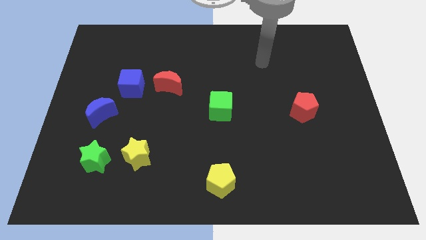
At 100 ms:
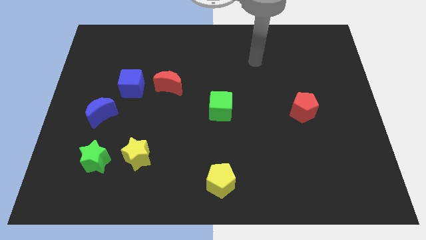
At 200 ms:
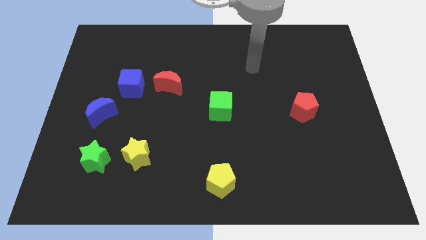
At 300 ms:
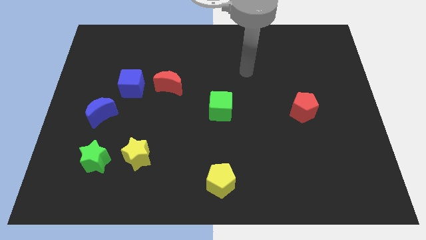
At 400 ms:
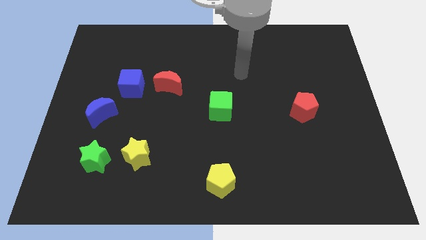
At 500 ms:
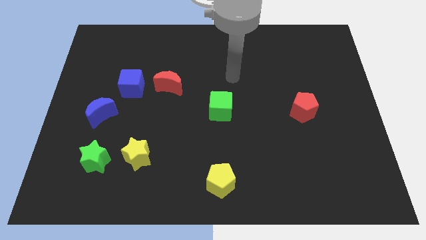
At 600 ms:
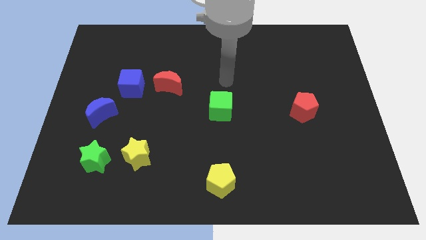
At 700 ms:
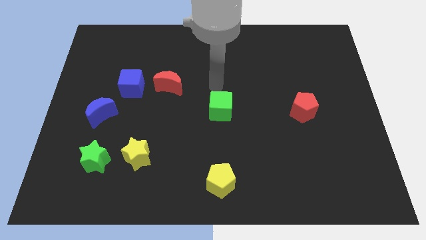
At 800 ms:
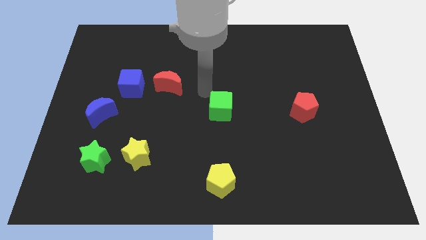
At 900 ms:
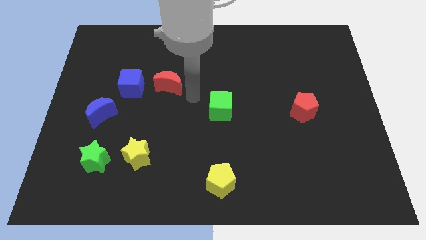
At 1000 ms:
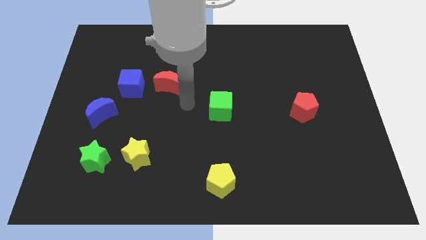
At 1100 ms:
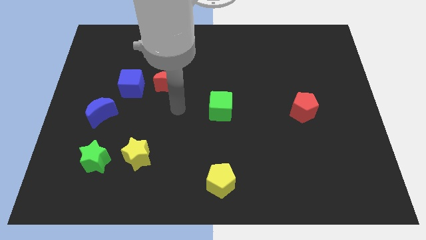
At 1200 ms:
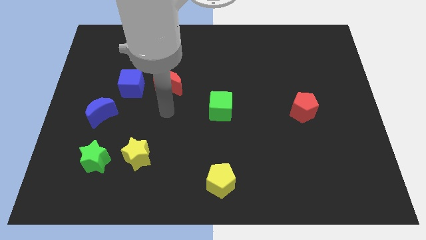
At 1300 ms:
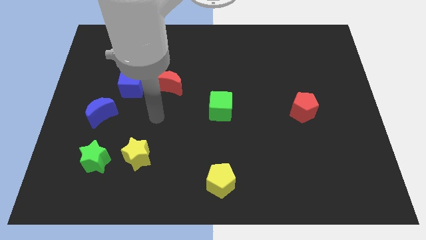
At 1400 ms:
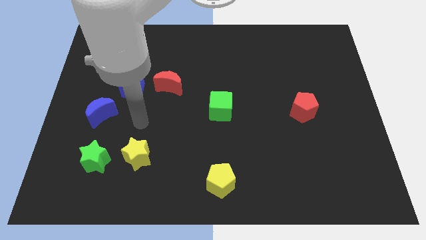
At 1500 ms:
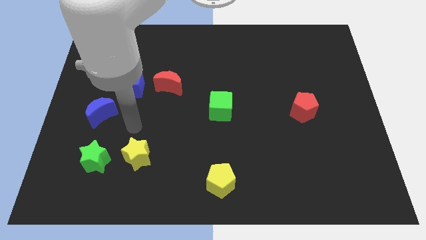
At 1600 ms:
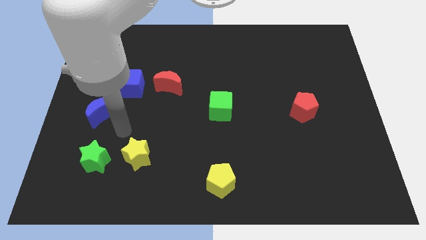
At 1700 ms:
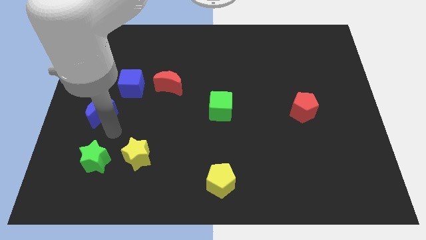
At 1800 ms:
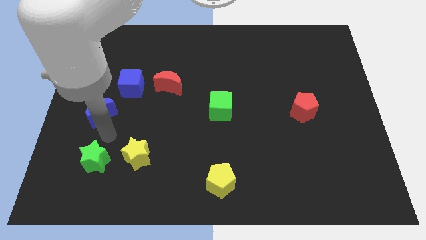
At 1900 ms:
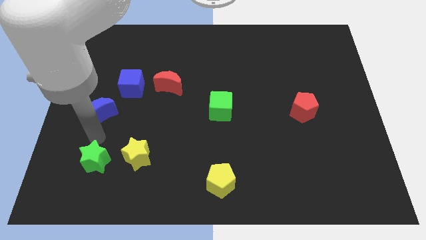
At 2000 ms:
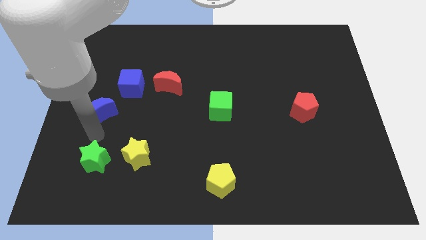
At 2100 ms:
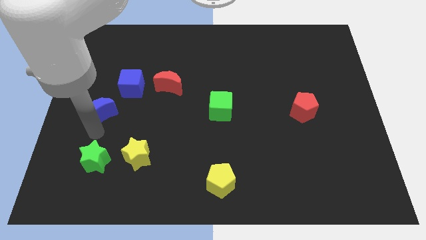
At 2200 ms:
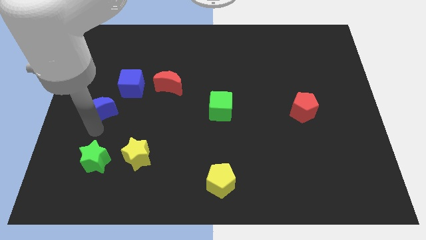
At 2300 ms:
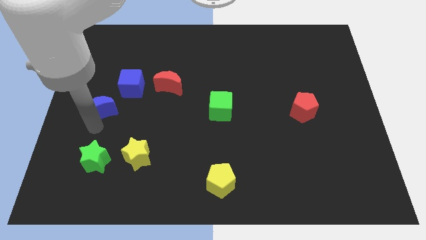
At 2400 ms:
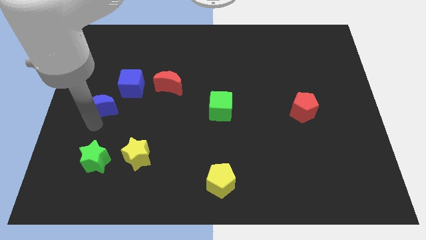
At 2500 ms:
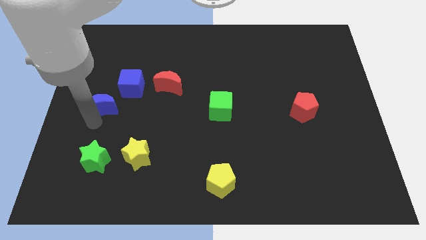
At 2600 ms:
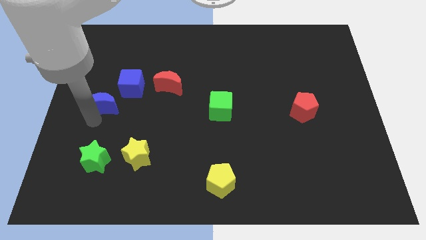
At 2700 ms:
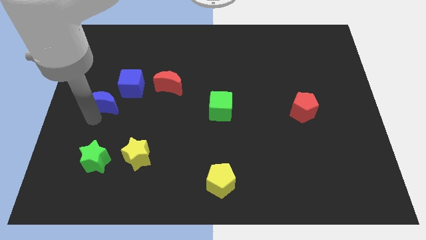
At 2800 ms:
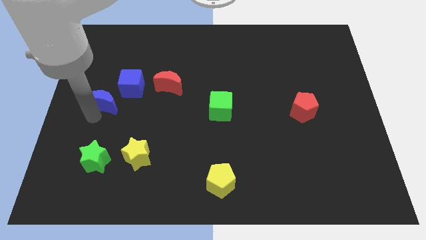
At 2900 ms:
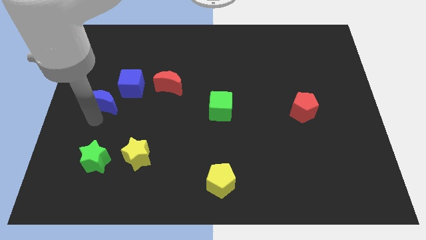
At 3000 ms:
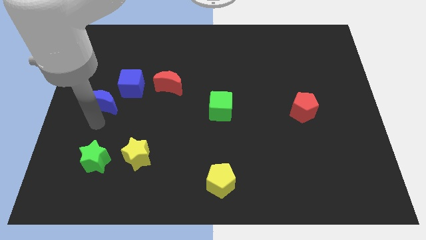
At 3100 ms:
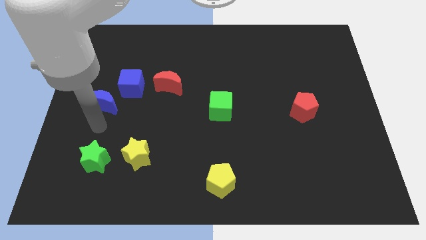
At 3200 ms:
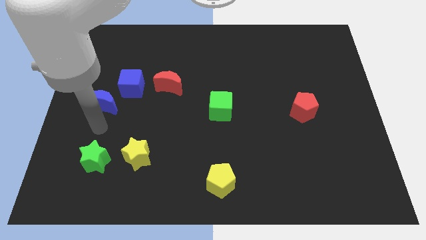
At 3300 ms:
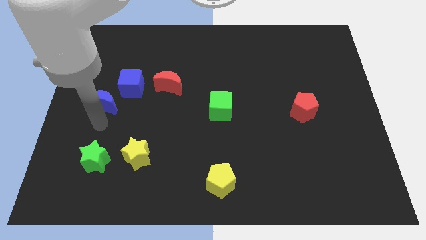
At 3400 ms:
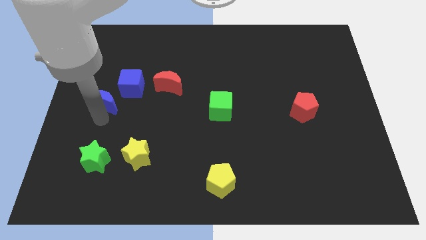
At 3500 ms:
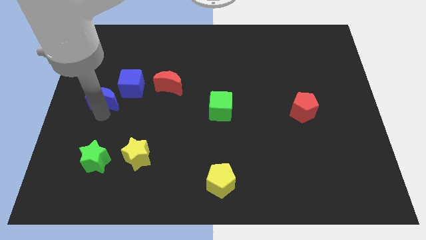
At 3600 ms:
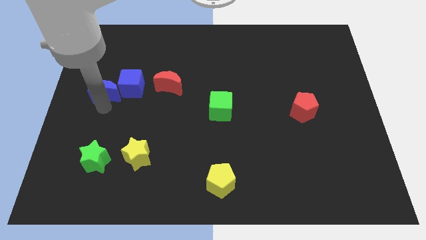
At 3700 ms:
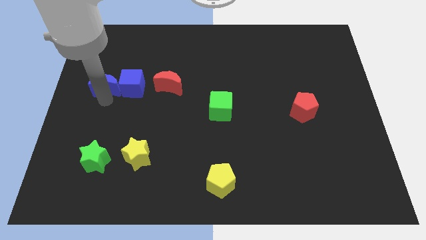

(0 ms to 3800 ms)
slide the blue moon somewhat upwards

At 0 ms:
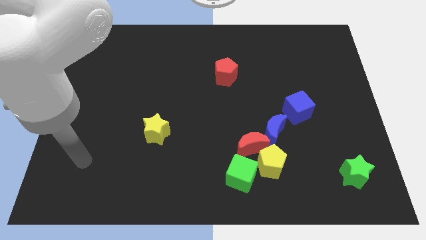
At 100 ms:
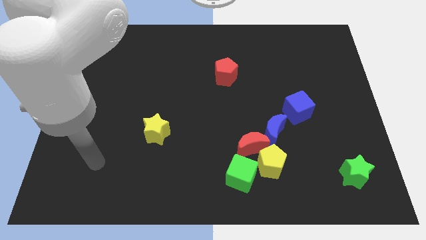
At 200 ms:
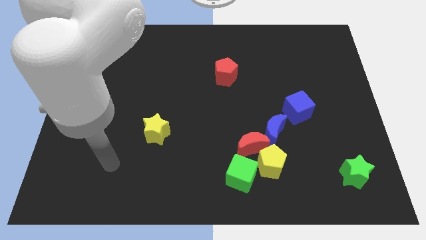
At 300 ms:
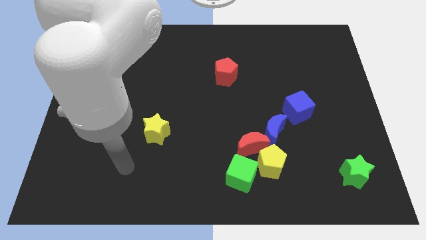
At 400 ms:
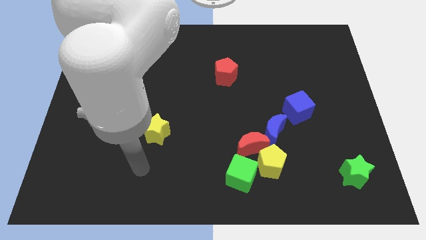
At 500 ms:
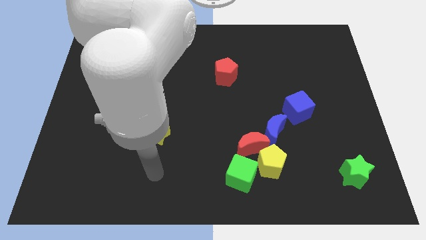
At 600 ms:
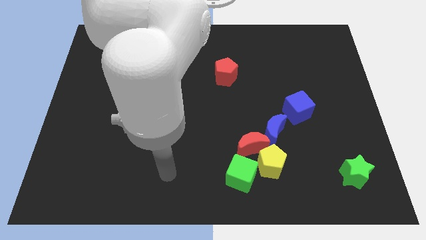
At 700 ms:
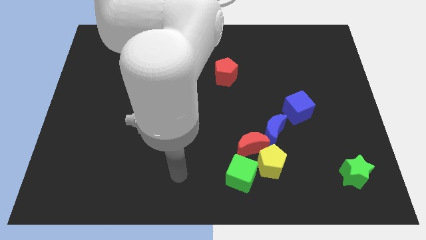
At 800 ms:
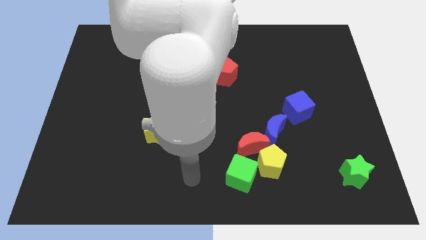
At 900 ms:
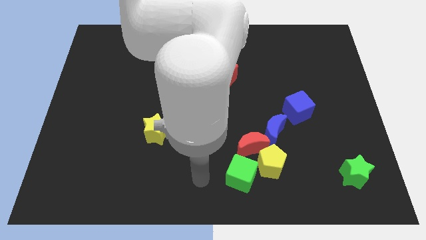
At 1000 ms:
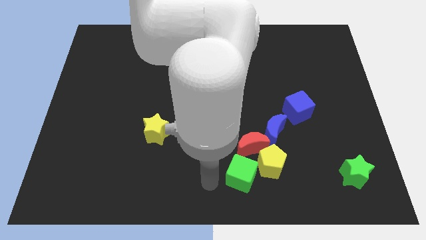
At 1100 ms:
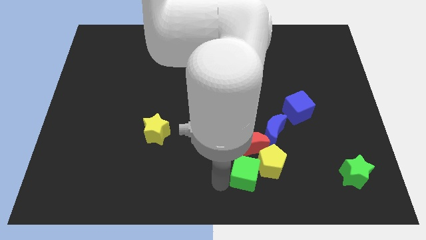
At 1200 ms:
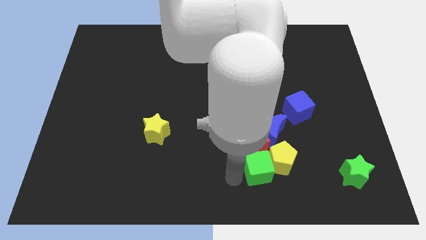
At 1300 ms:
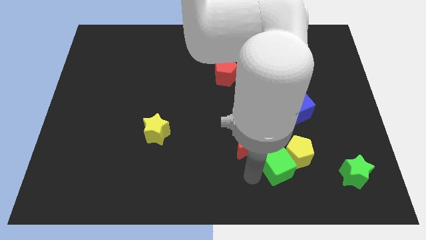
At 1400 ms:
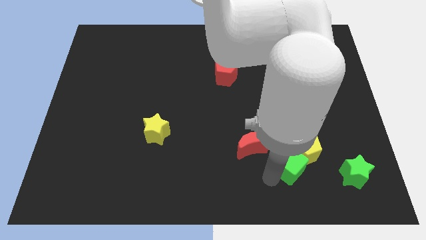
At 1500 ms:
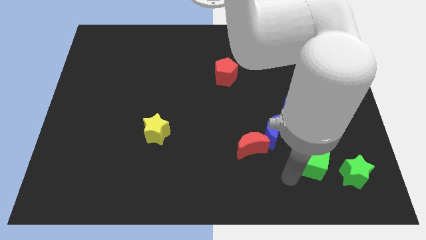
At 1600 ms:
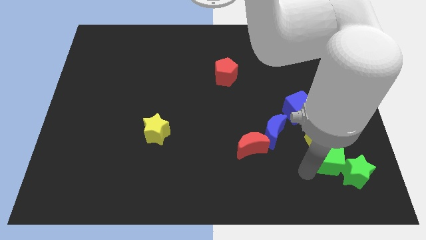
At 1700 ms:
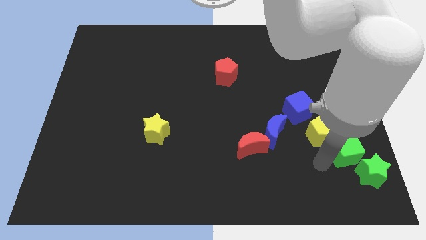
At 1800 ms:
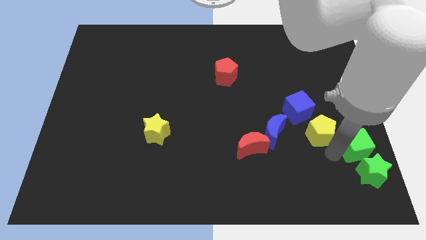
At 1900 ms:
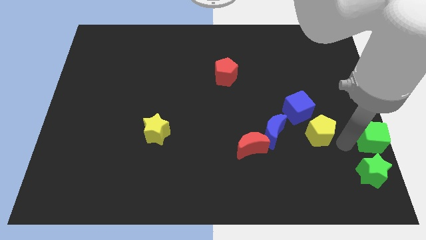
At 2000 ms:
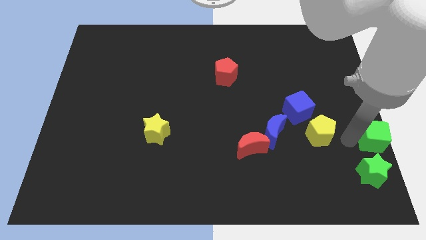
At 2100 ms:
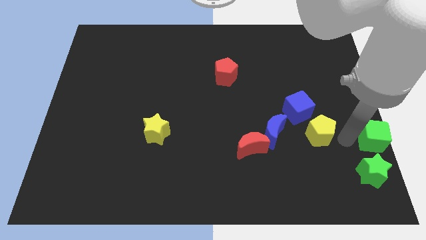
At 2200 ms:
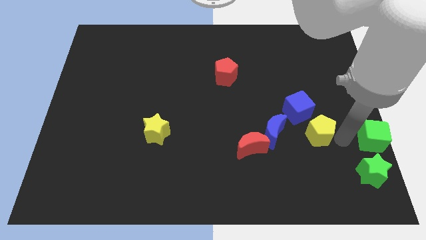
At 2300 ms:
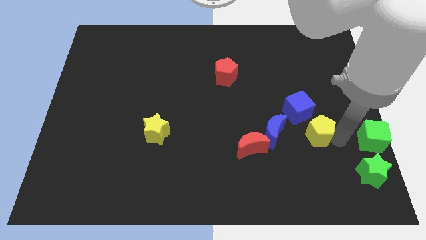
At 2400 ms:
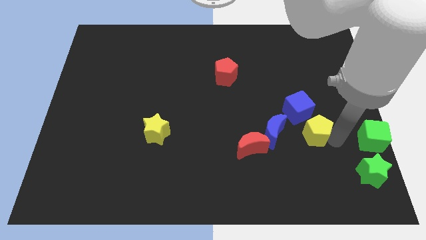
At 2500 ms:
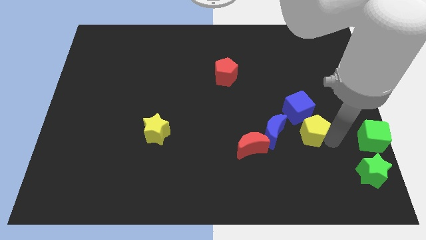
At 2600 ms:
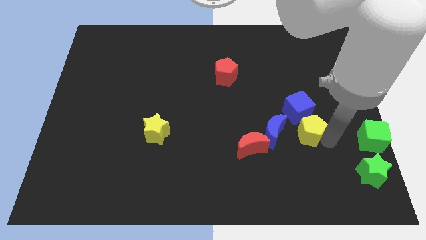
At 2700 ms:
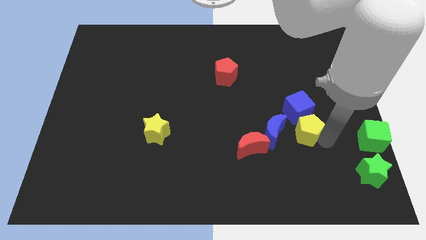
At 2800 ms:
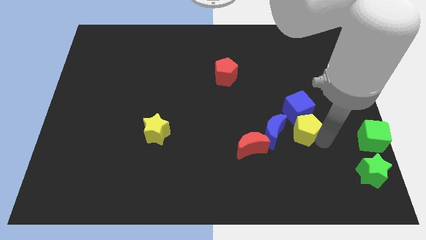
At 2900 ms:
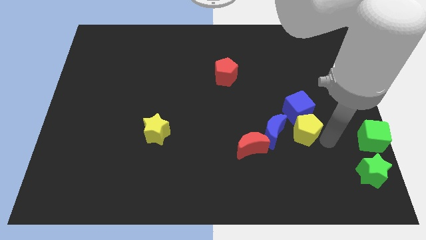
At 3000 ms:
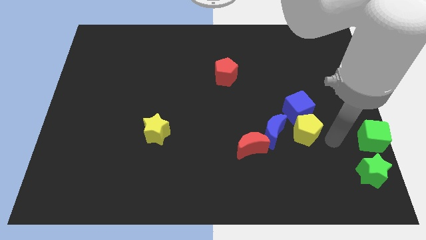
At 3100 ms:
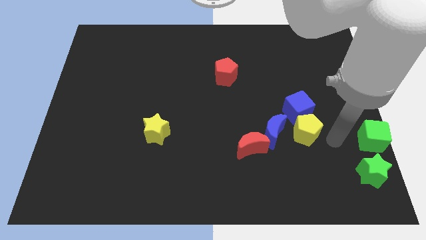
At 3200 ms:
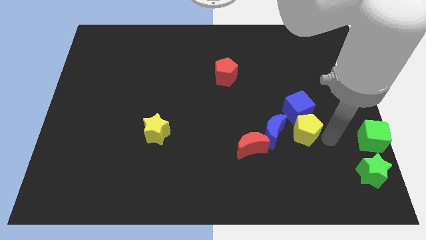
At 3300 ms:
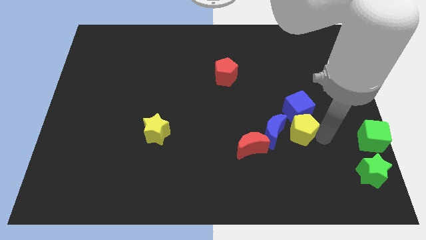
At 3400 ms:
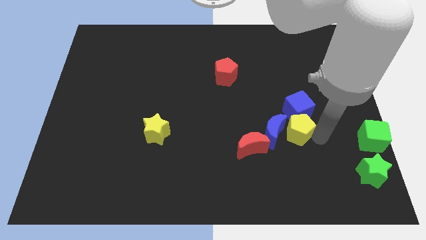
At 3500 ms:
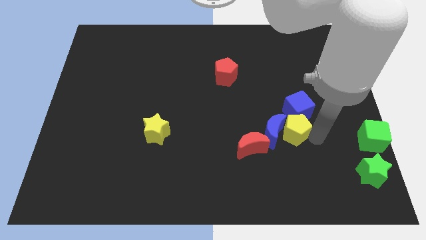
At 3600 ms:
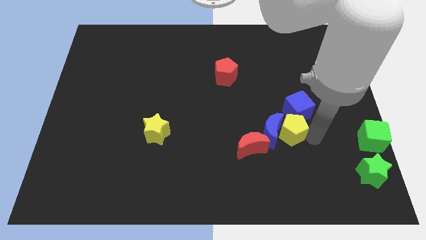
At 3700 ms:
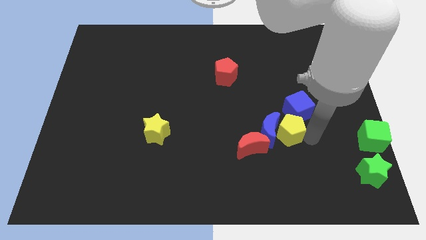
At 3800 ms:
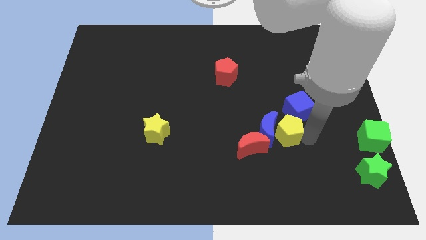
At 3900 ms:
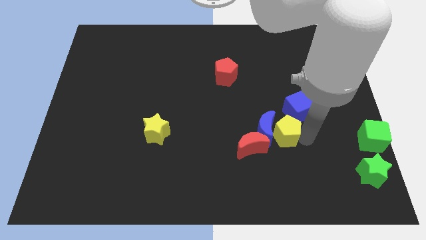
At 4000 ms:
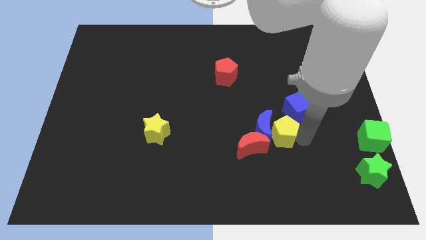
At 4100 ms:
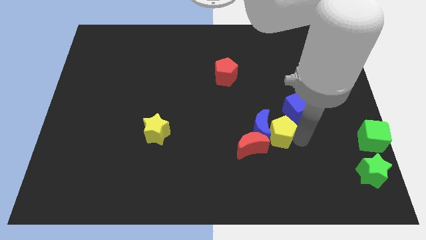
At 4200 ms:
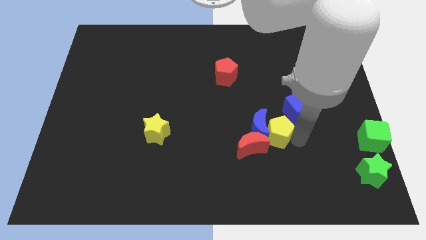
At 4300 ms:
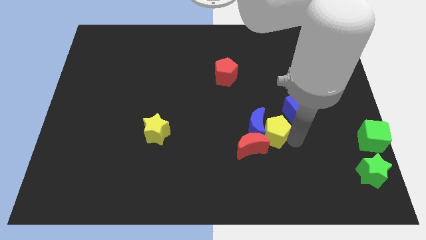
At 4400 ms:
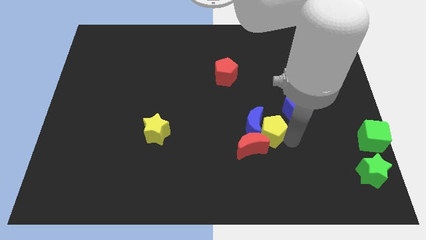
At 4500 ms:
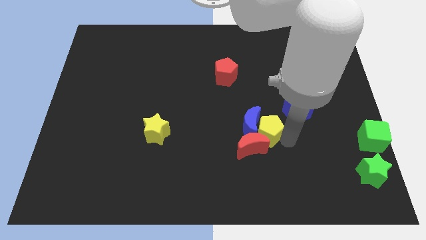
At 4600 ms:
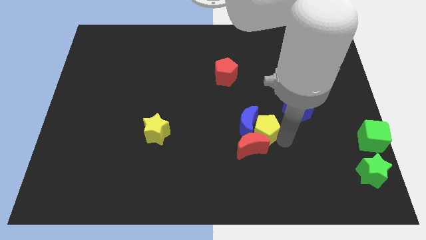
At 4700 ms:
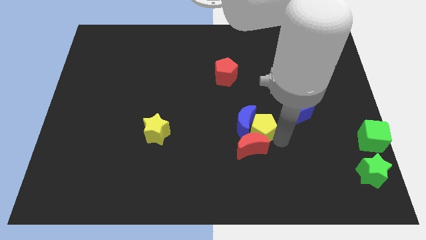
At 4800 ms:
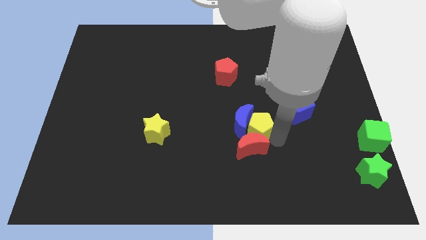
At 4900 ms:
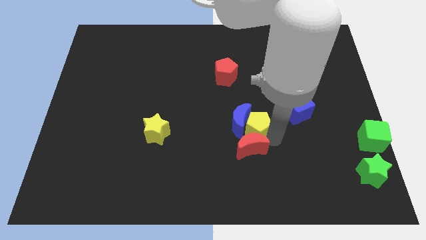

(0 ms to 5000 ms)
push the yellow pentagon slightly up and to the left diagonally
